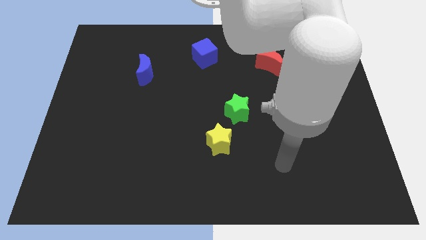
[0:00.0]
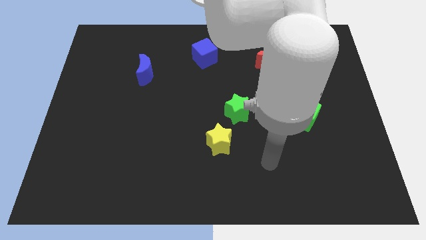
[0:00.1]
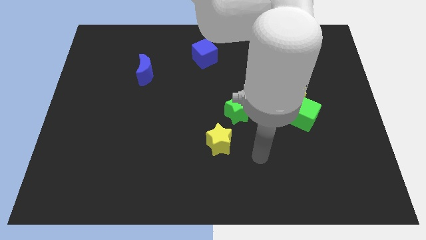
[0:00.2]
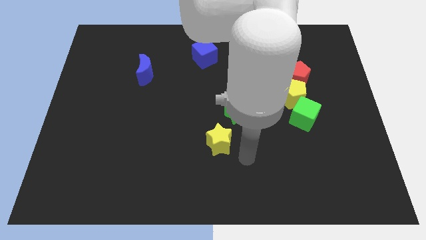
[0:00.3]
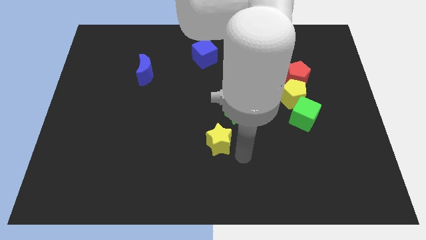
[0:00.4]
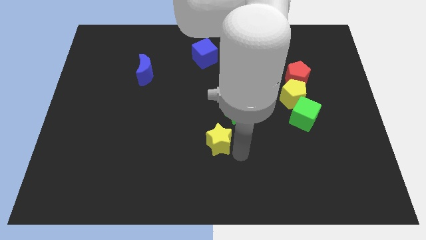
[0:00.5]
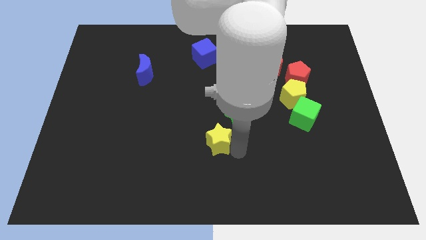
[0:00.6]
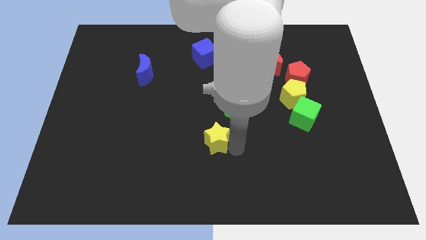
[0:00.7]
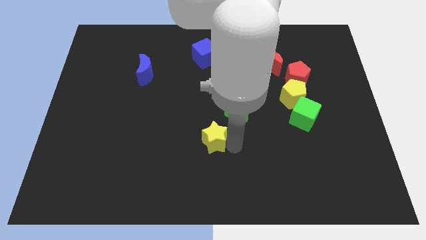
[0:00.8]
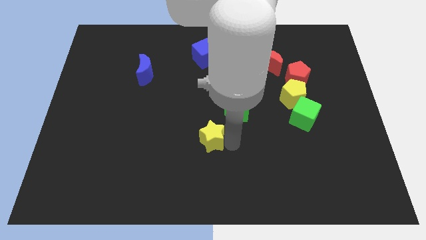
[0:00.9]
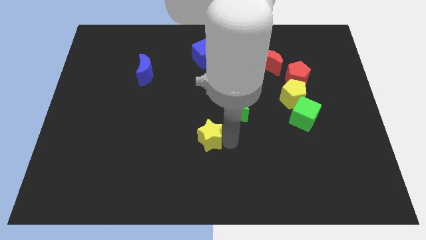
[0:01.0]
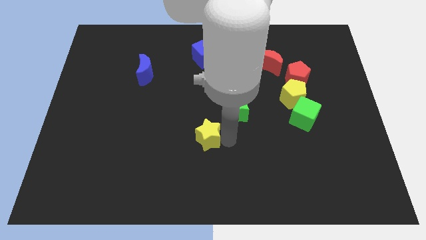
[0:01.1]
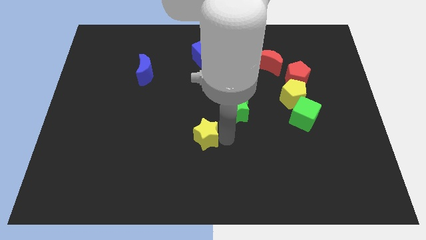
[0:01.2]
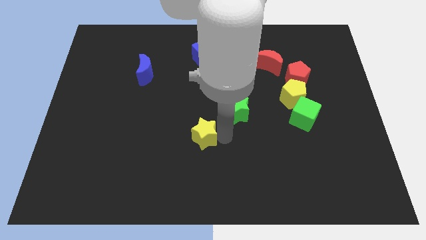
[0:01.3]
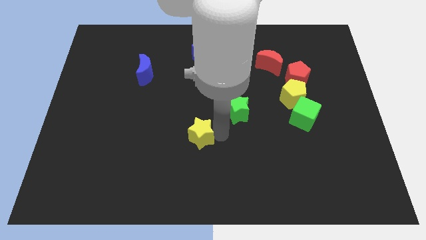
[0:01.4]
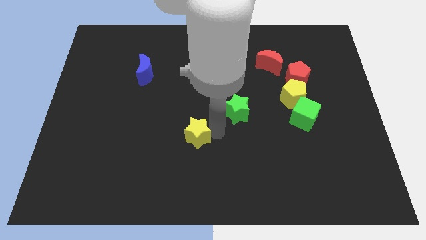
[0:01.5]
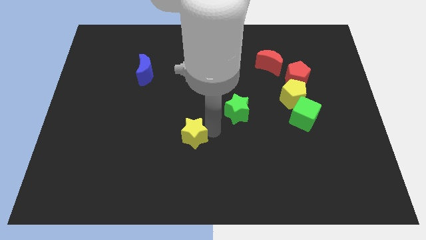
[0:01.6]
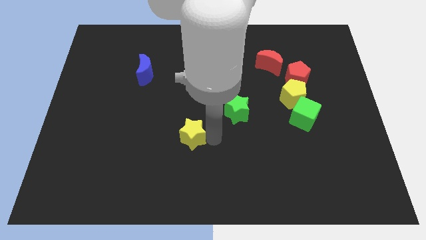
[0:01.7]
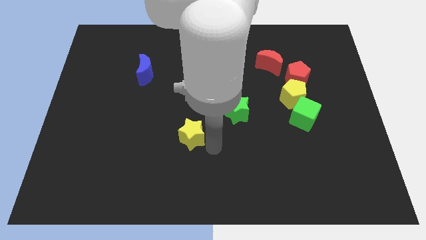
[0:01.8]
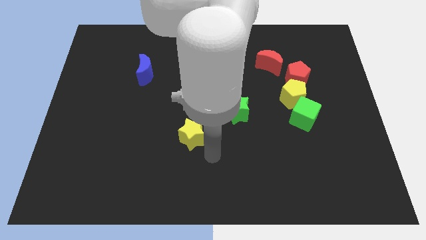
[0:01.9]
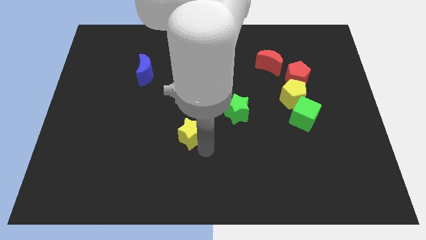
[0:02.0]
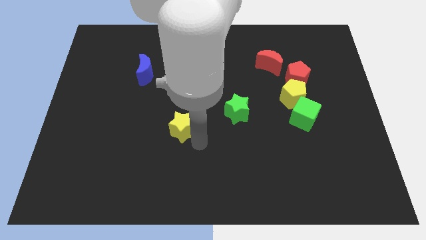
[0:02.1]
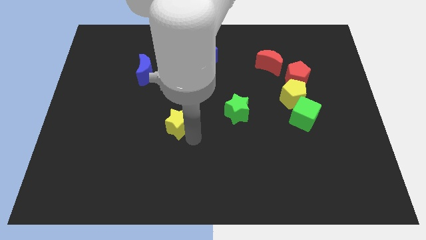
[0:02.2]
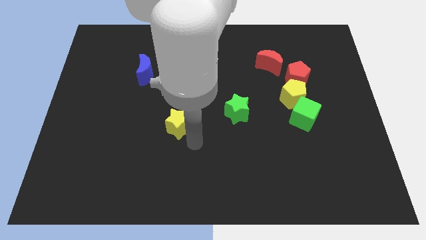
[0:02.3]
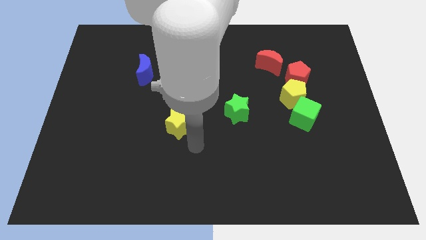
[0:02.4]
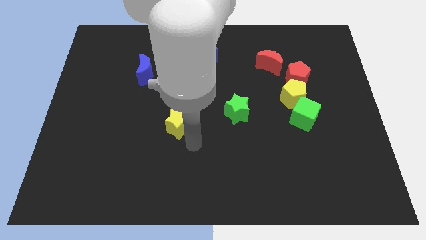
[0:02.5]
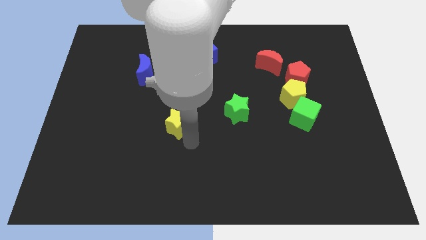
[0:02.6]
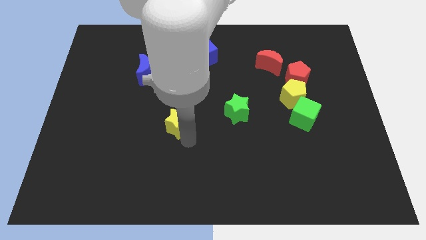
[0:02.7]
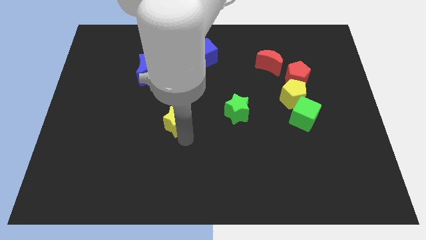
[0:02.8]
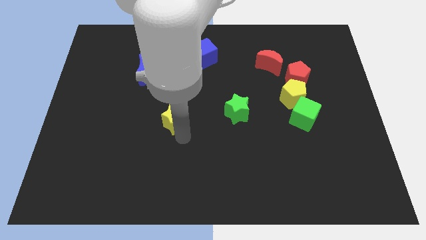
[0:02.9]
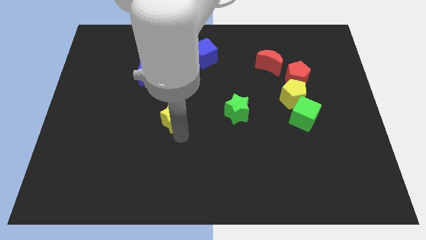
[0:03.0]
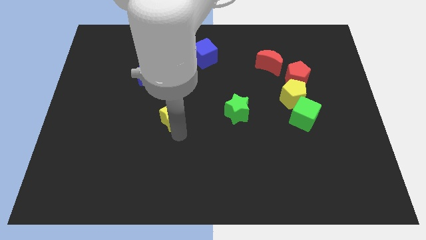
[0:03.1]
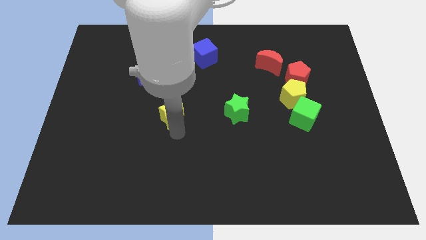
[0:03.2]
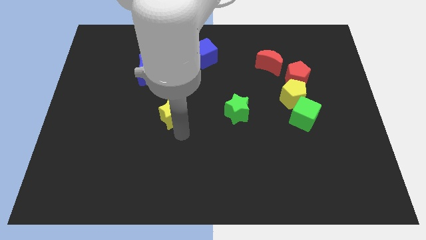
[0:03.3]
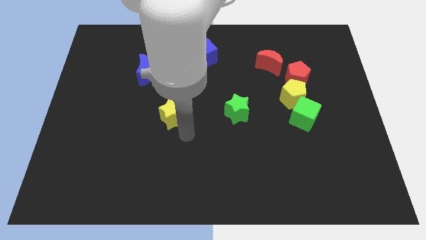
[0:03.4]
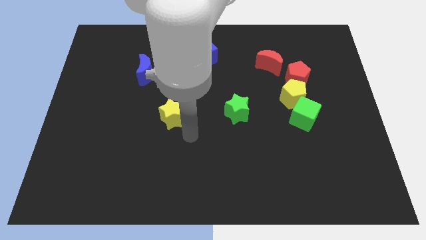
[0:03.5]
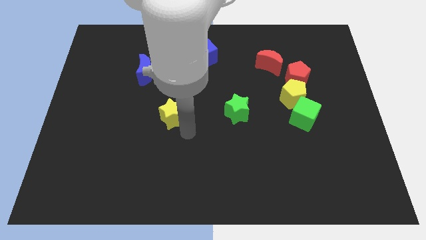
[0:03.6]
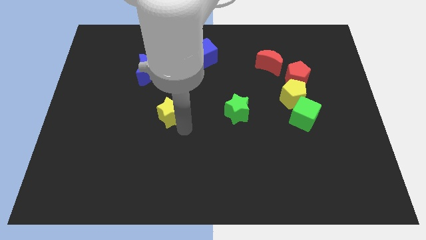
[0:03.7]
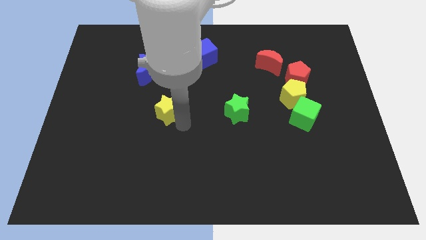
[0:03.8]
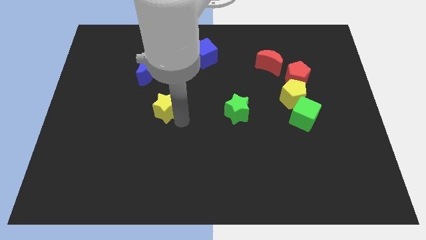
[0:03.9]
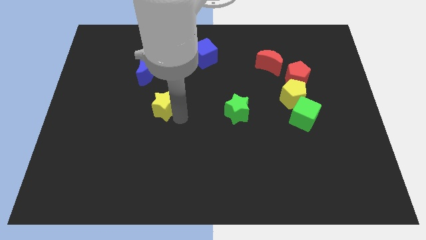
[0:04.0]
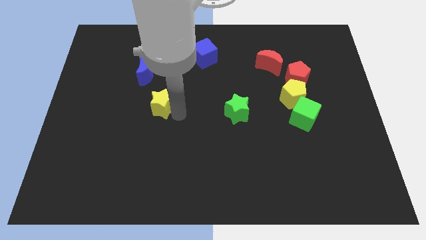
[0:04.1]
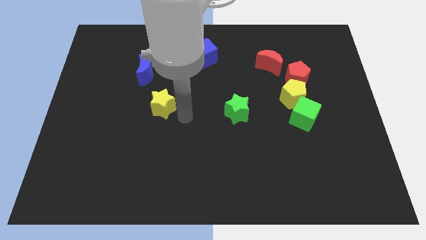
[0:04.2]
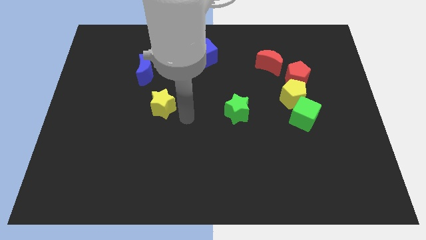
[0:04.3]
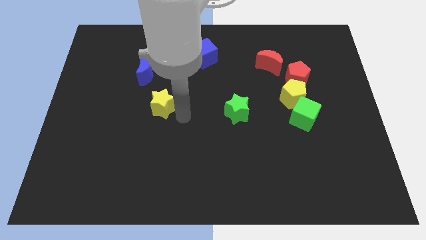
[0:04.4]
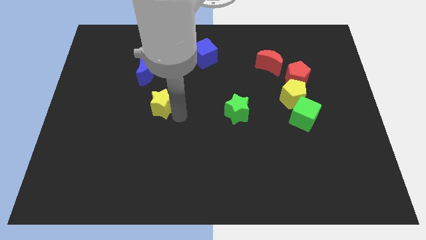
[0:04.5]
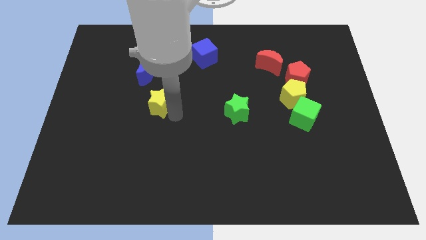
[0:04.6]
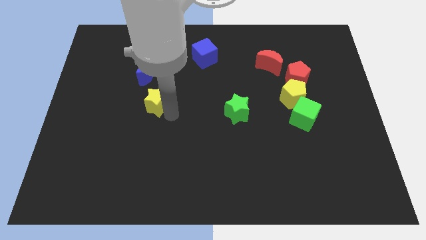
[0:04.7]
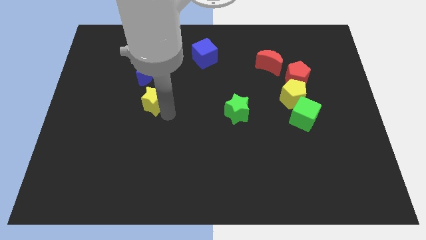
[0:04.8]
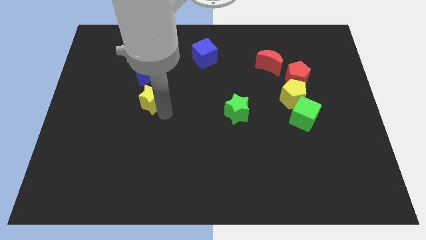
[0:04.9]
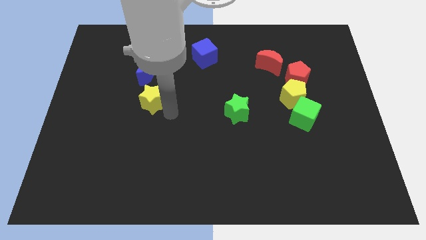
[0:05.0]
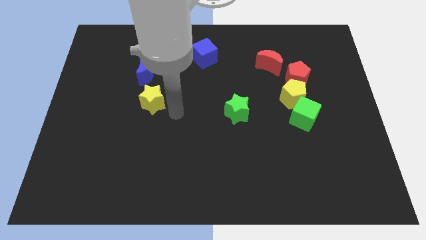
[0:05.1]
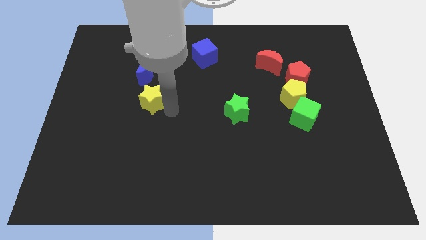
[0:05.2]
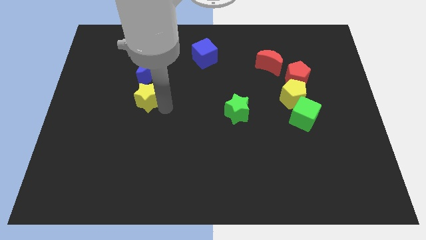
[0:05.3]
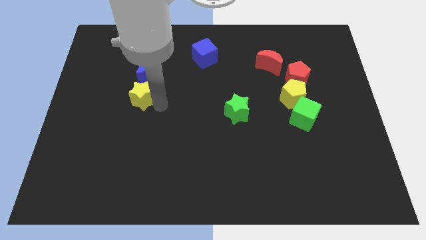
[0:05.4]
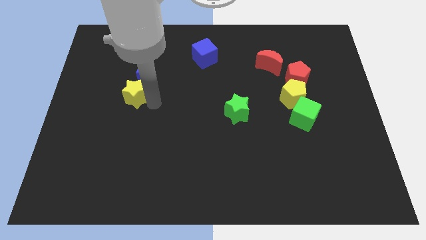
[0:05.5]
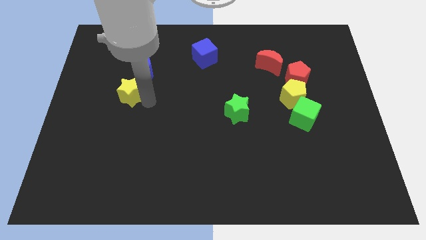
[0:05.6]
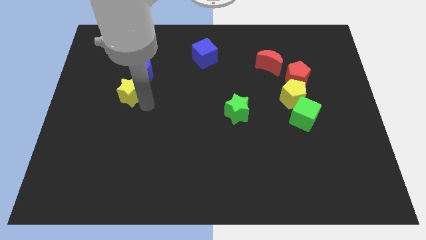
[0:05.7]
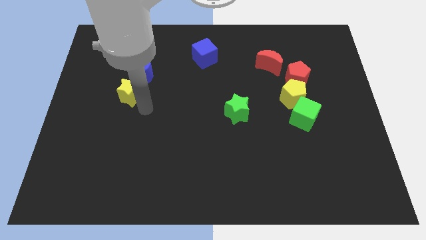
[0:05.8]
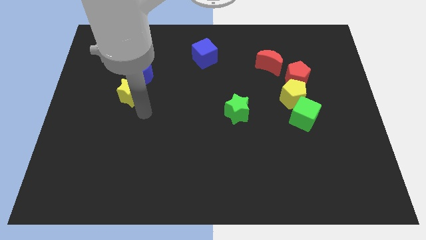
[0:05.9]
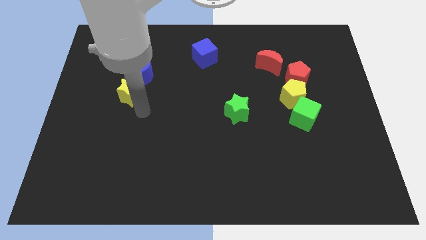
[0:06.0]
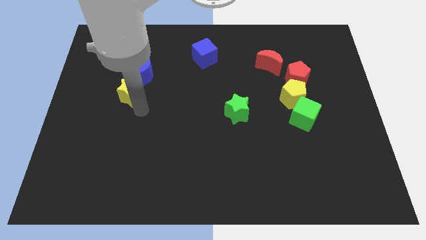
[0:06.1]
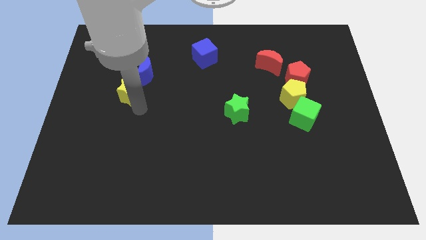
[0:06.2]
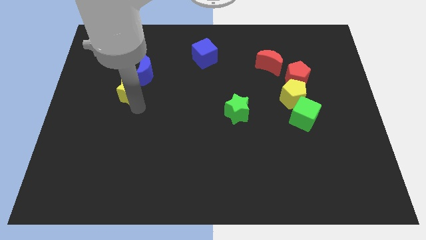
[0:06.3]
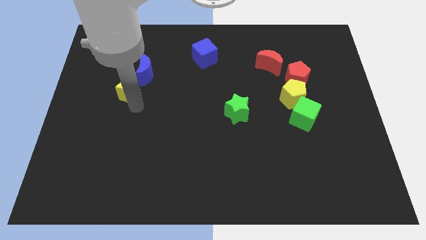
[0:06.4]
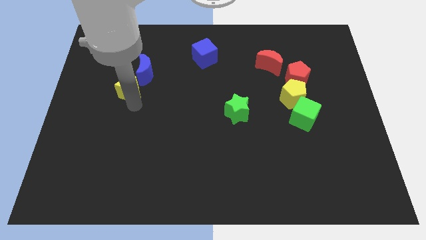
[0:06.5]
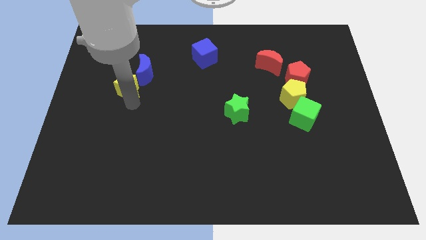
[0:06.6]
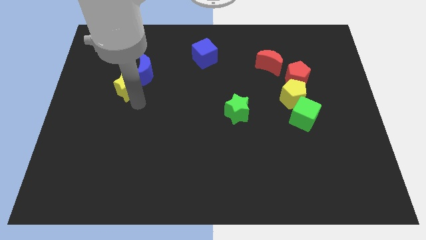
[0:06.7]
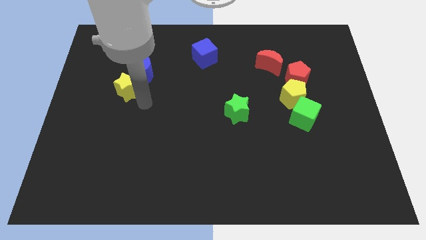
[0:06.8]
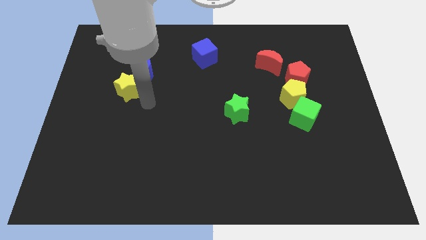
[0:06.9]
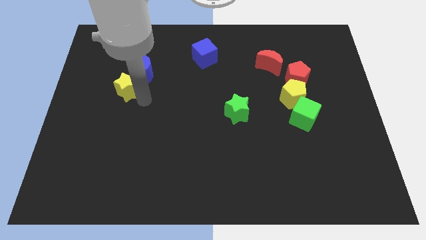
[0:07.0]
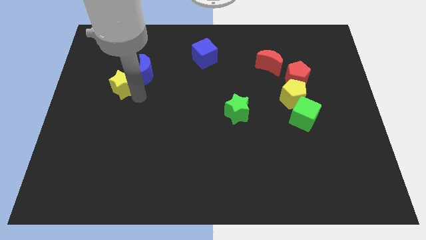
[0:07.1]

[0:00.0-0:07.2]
move the yellow star just left of the blue moon
